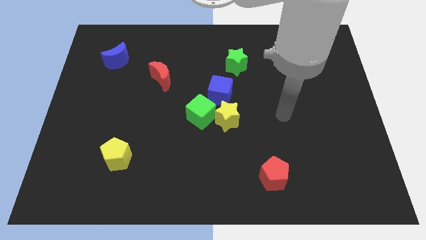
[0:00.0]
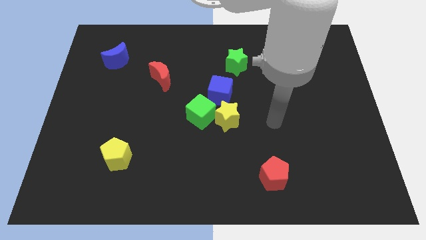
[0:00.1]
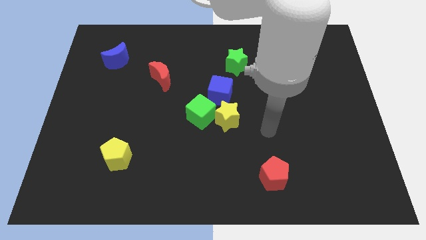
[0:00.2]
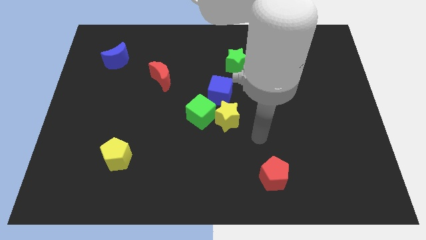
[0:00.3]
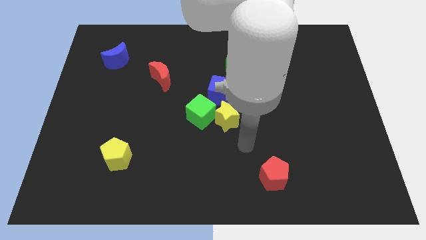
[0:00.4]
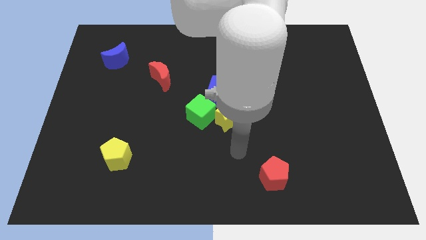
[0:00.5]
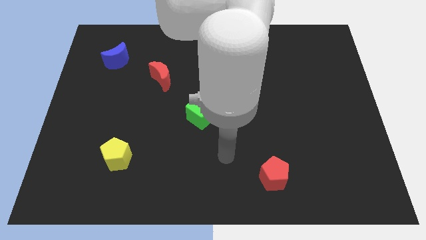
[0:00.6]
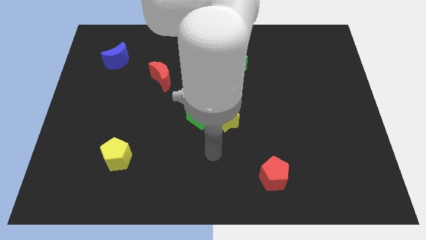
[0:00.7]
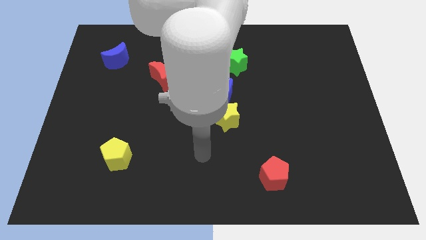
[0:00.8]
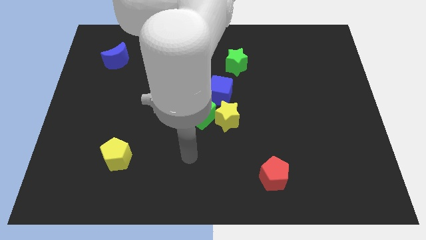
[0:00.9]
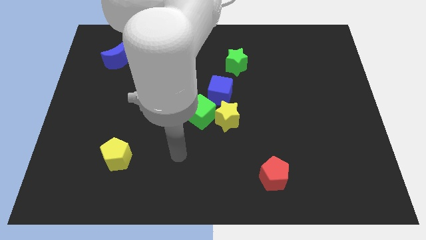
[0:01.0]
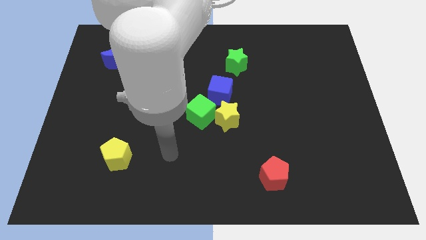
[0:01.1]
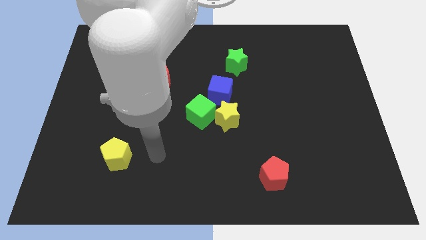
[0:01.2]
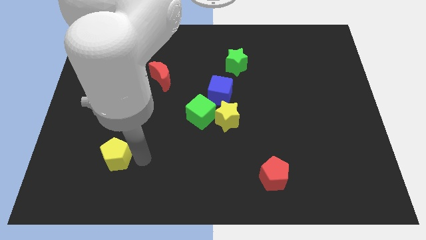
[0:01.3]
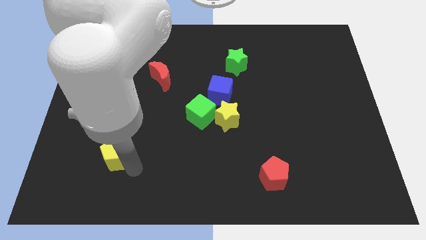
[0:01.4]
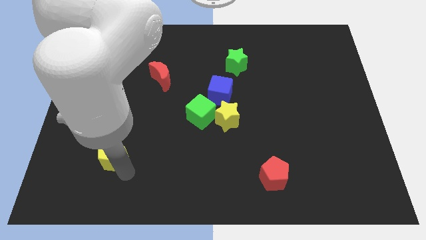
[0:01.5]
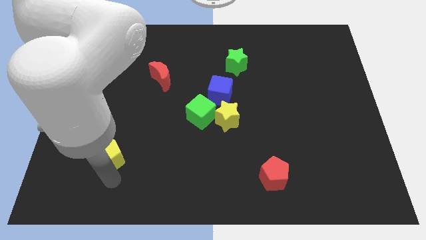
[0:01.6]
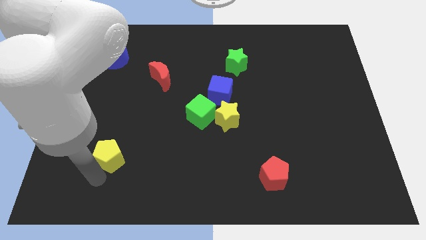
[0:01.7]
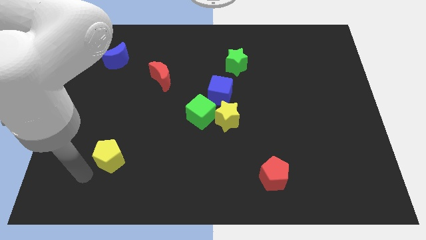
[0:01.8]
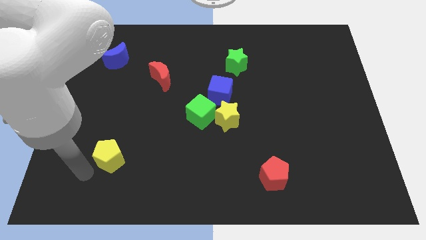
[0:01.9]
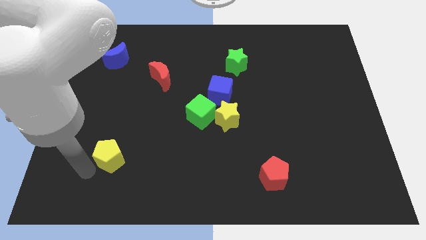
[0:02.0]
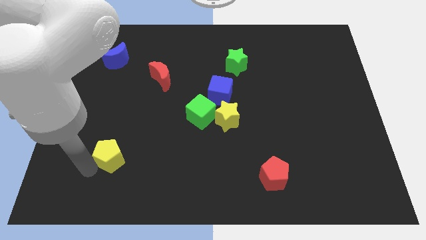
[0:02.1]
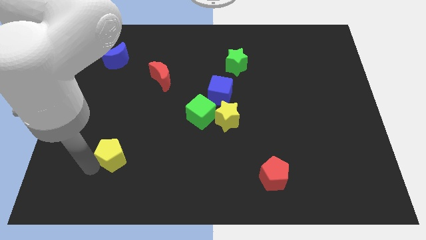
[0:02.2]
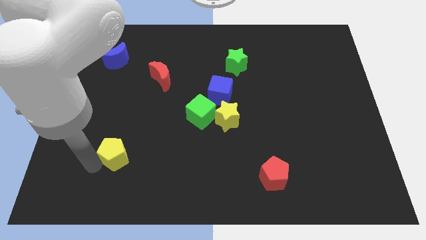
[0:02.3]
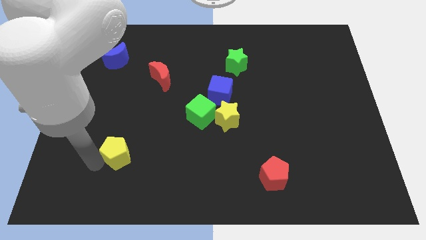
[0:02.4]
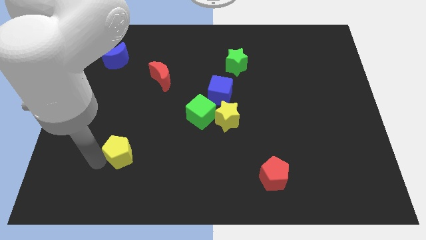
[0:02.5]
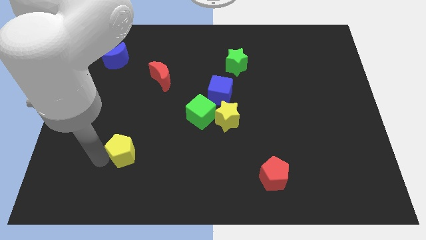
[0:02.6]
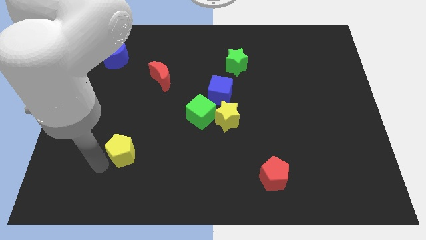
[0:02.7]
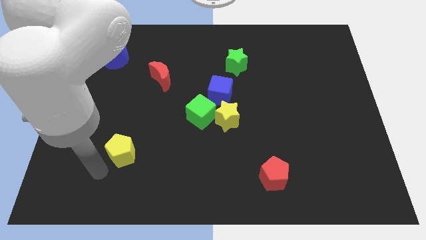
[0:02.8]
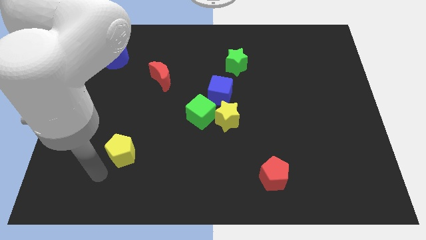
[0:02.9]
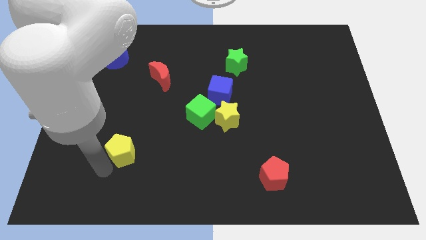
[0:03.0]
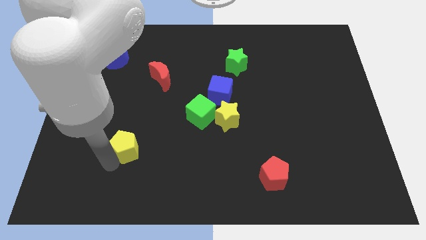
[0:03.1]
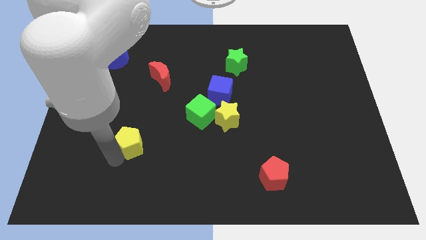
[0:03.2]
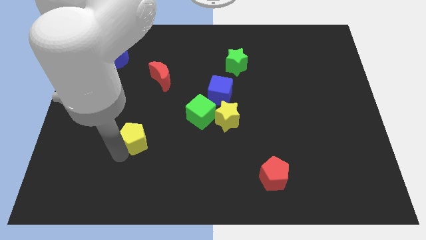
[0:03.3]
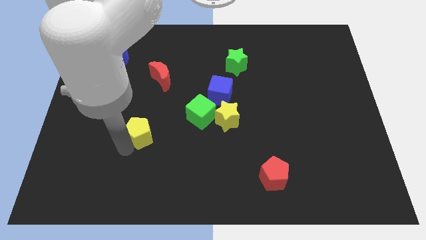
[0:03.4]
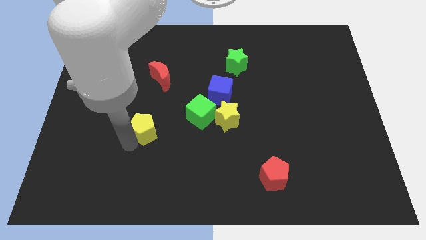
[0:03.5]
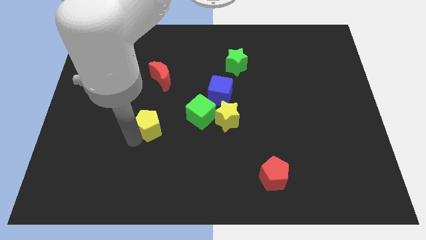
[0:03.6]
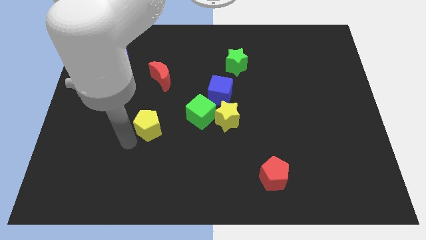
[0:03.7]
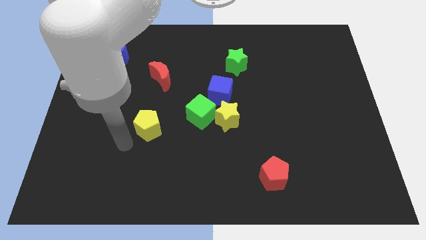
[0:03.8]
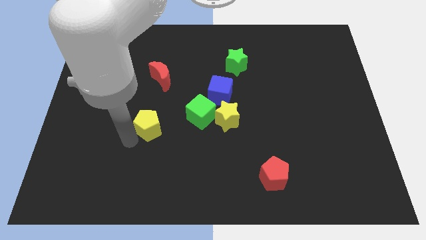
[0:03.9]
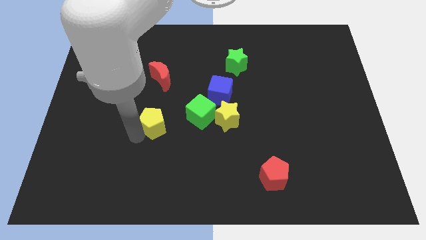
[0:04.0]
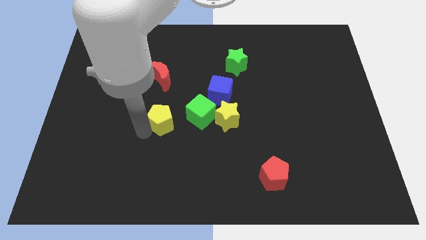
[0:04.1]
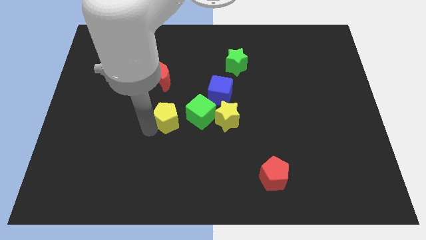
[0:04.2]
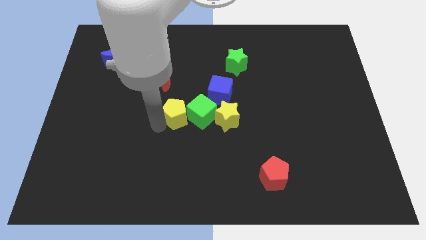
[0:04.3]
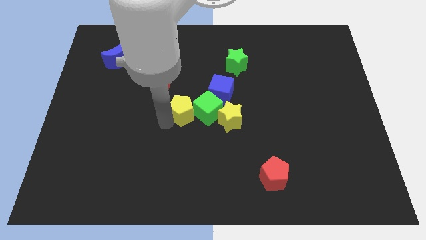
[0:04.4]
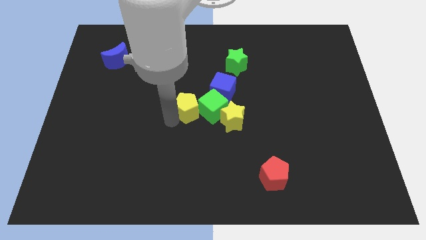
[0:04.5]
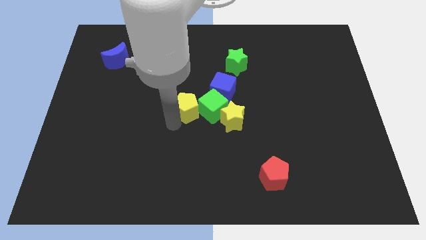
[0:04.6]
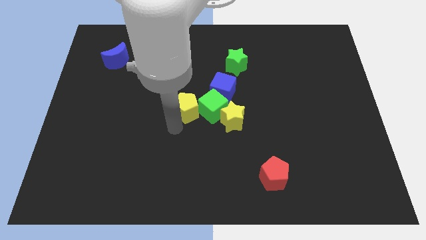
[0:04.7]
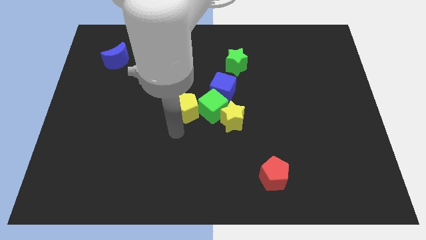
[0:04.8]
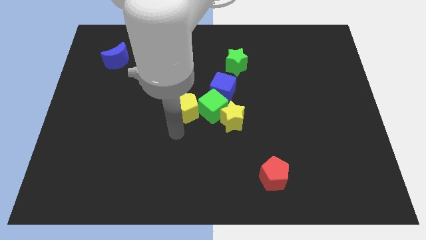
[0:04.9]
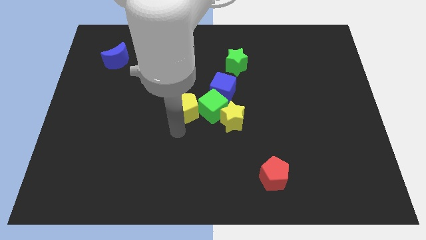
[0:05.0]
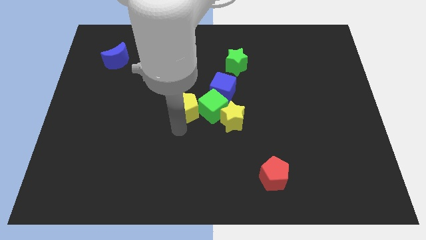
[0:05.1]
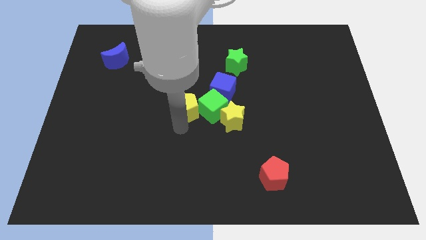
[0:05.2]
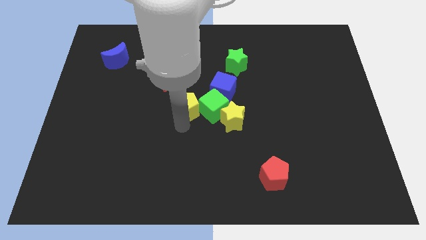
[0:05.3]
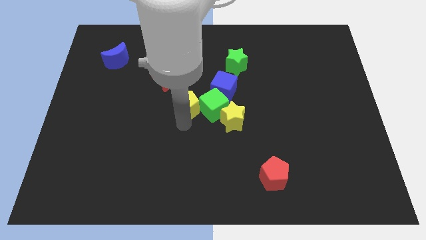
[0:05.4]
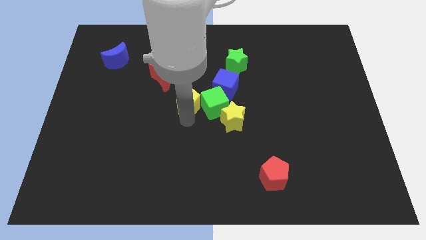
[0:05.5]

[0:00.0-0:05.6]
move the yellow pentagon diagonally up and to the right

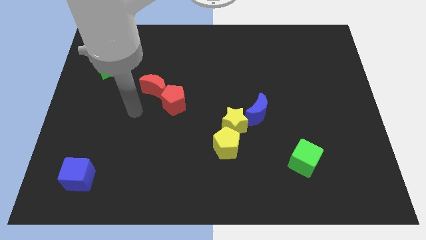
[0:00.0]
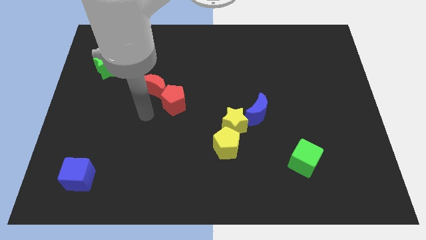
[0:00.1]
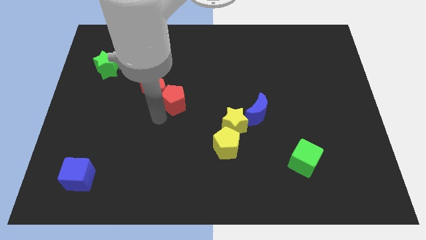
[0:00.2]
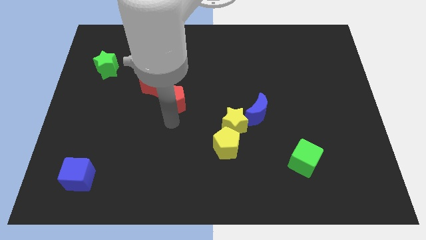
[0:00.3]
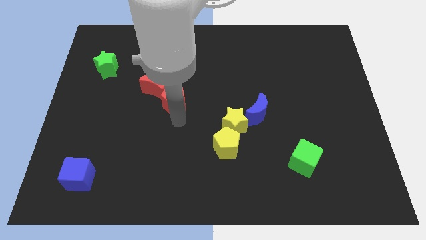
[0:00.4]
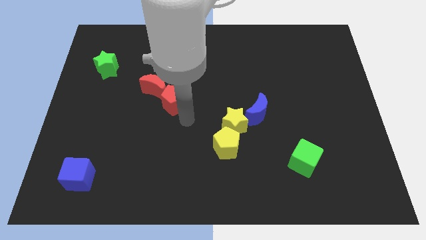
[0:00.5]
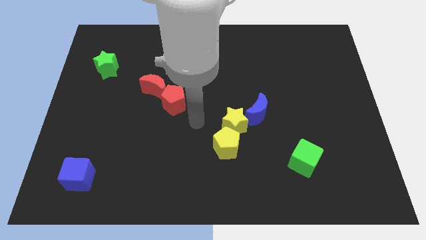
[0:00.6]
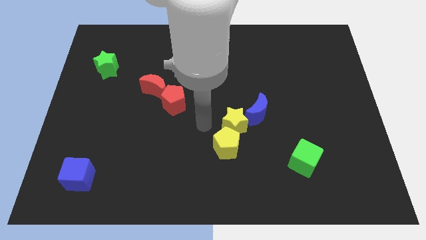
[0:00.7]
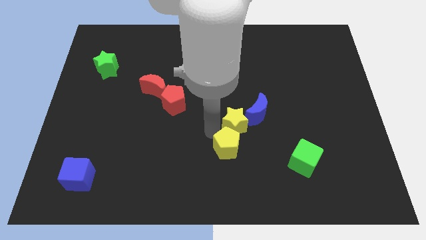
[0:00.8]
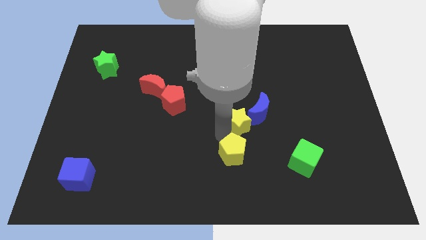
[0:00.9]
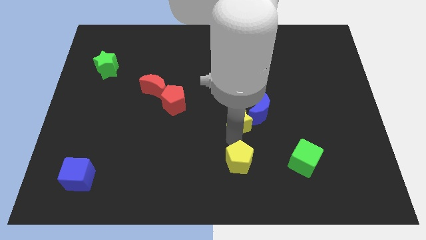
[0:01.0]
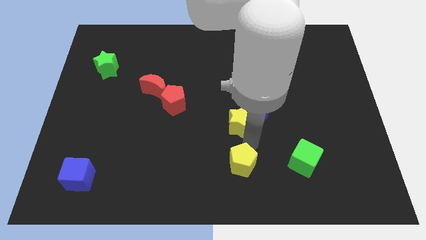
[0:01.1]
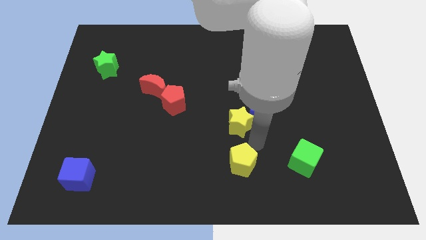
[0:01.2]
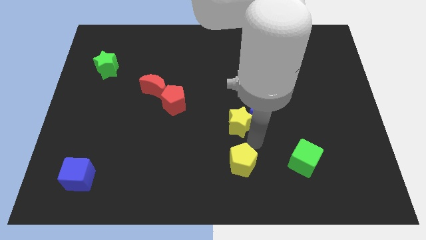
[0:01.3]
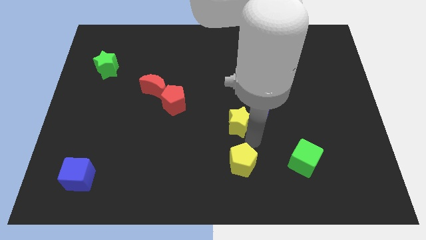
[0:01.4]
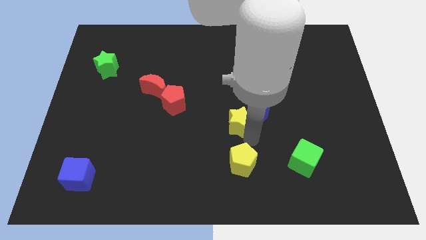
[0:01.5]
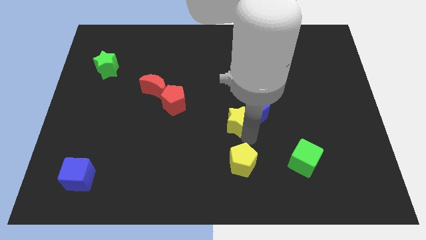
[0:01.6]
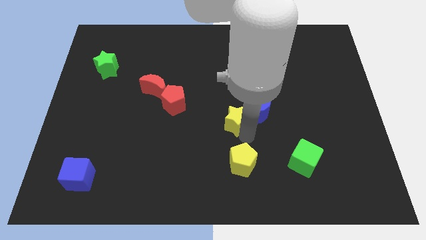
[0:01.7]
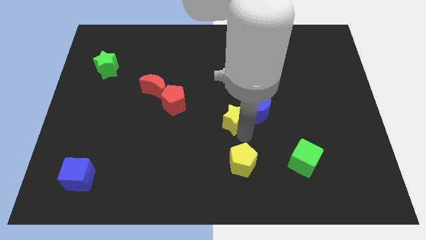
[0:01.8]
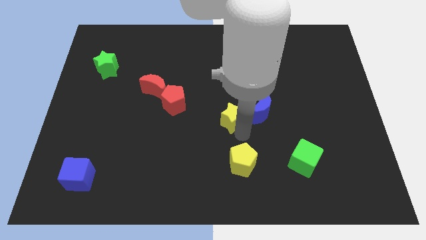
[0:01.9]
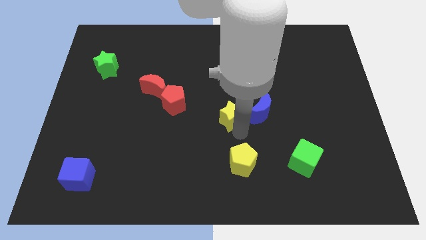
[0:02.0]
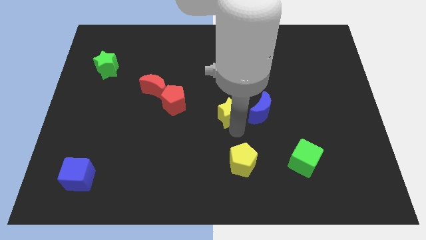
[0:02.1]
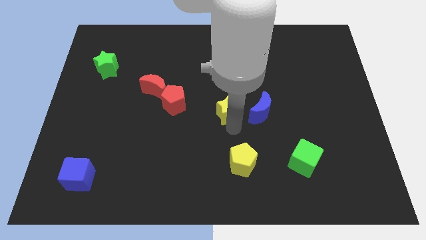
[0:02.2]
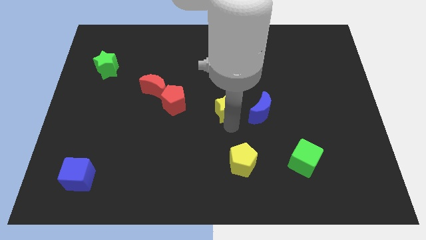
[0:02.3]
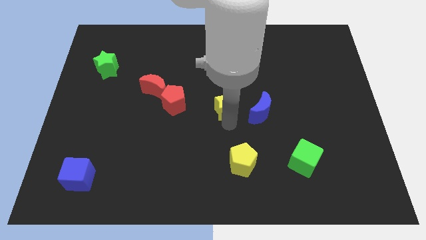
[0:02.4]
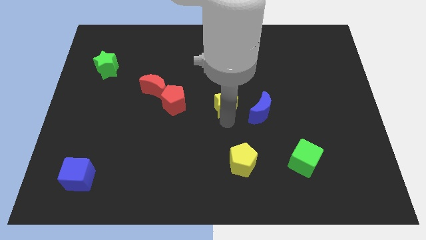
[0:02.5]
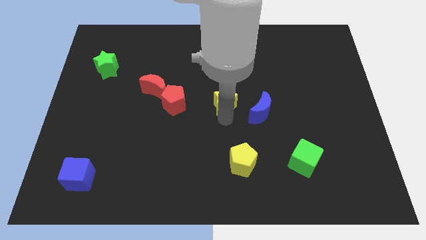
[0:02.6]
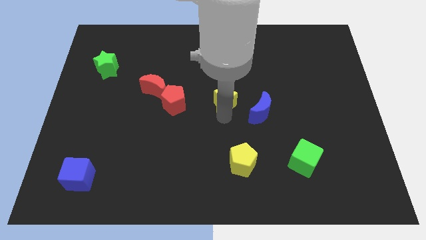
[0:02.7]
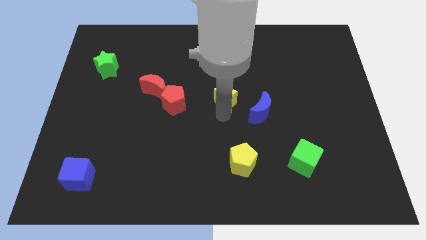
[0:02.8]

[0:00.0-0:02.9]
slide the yellow star a bit upwards
